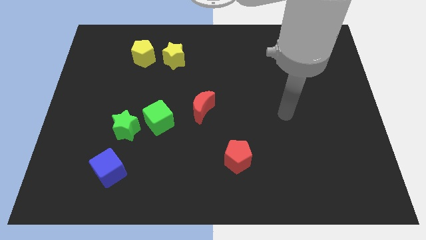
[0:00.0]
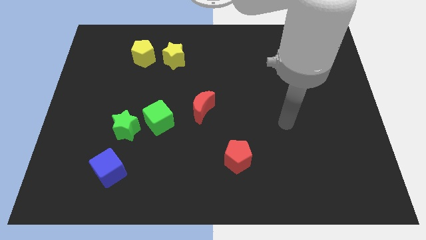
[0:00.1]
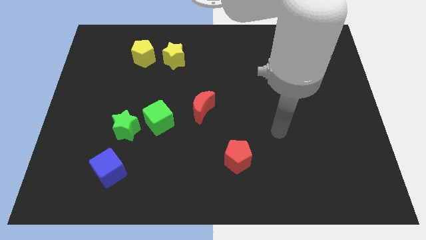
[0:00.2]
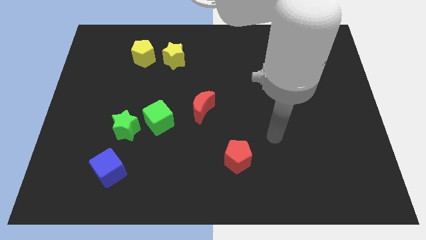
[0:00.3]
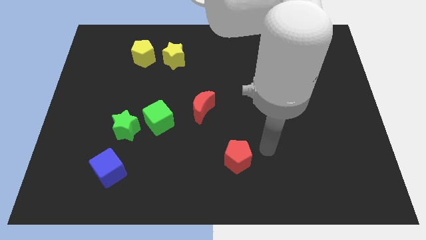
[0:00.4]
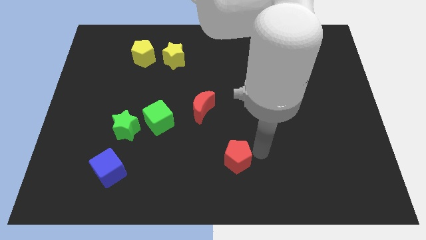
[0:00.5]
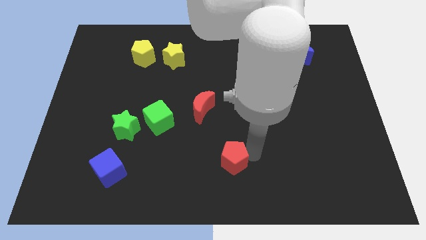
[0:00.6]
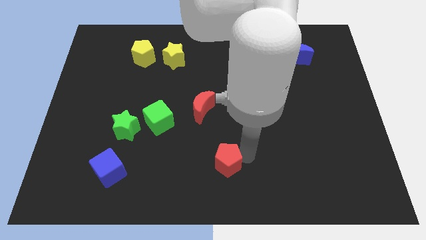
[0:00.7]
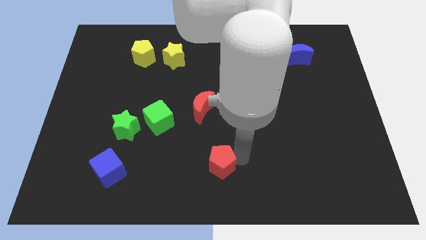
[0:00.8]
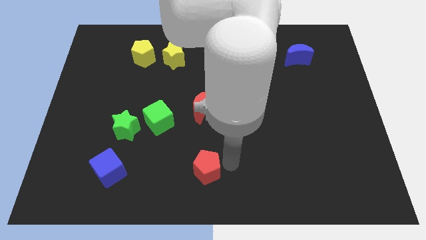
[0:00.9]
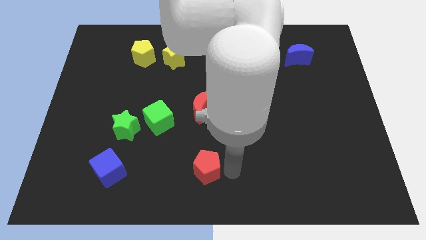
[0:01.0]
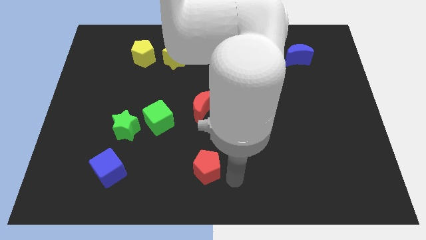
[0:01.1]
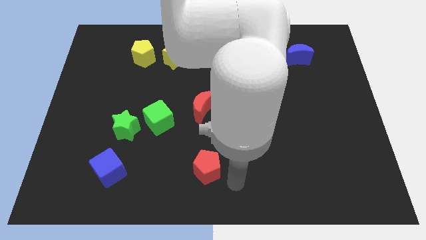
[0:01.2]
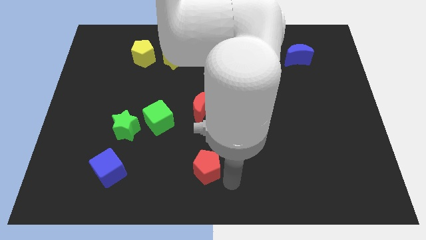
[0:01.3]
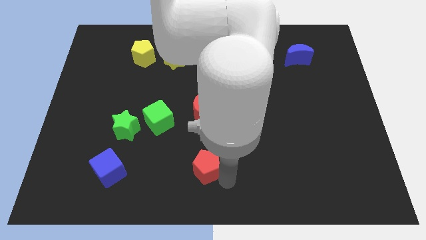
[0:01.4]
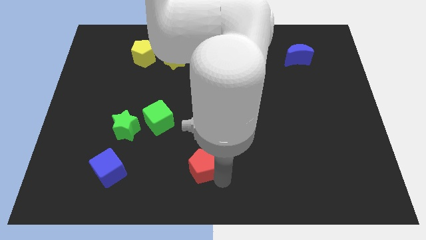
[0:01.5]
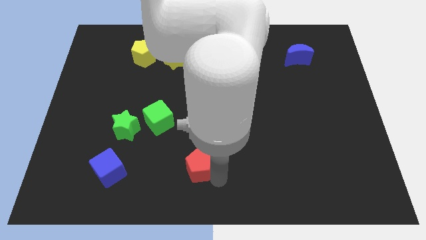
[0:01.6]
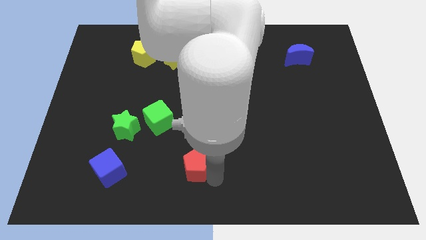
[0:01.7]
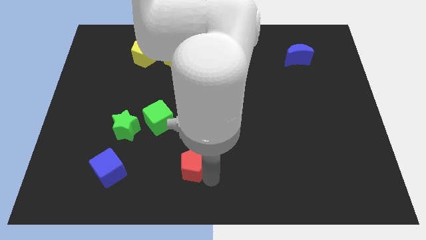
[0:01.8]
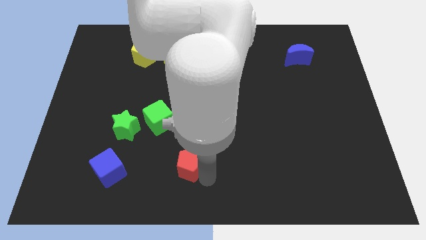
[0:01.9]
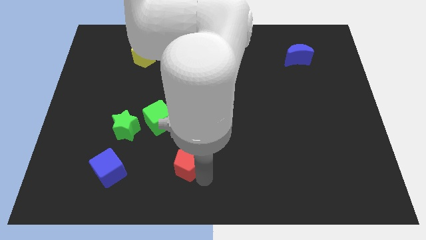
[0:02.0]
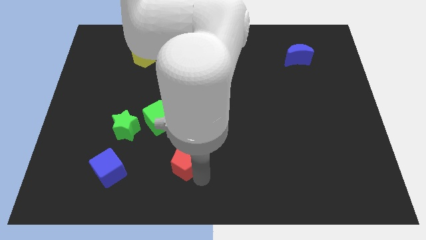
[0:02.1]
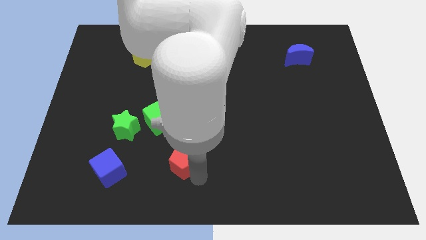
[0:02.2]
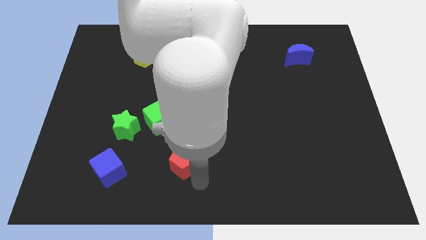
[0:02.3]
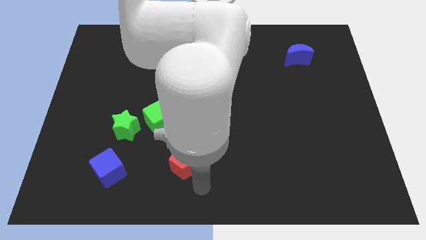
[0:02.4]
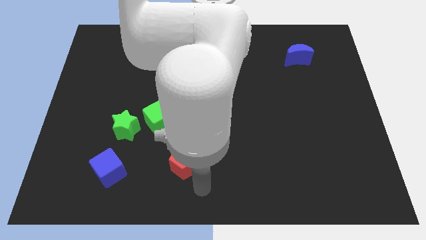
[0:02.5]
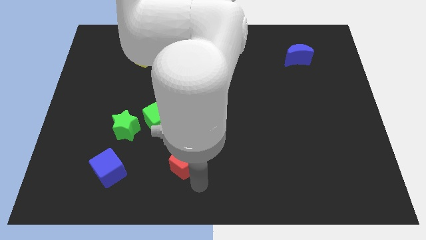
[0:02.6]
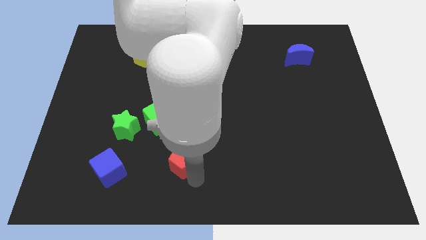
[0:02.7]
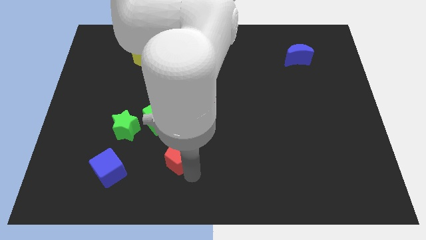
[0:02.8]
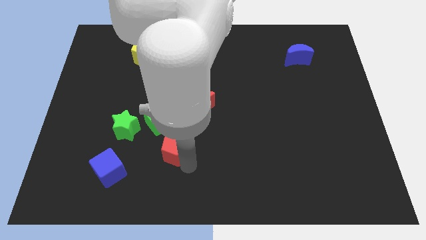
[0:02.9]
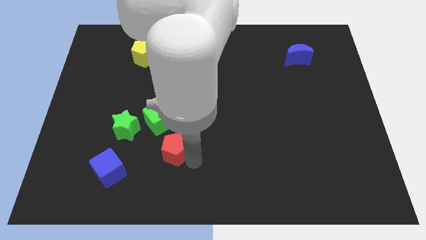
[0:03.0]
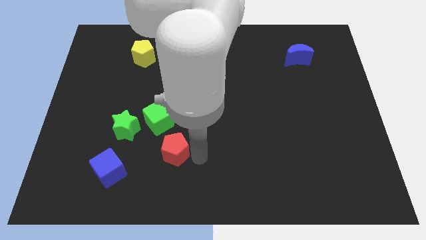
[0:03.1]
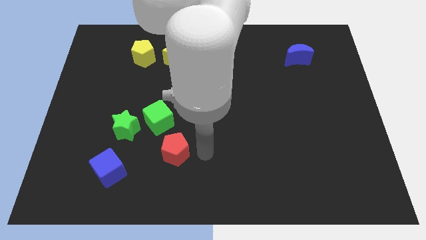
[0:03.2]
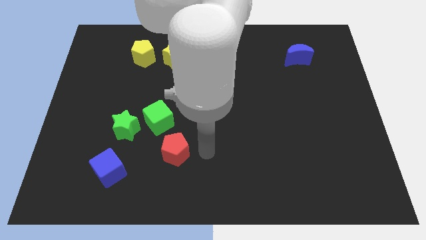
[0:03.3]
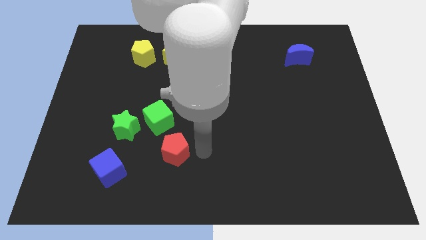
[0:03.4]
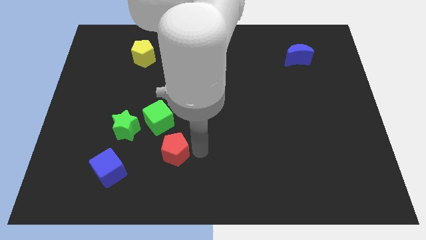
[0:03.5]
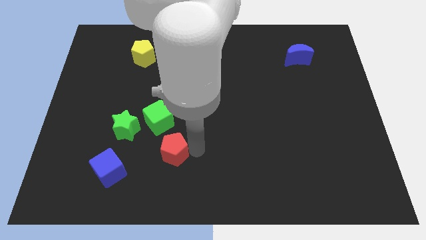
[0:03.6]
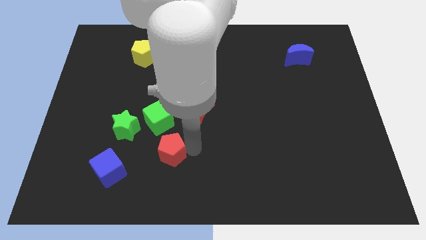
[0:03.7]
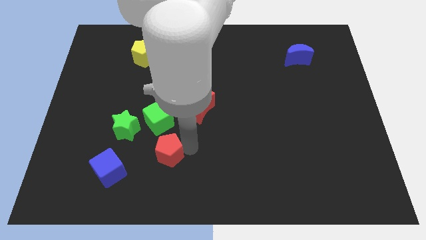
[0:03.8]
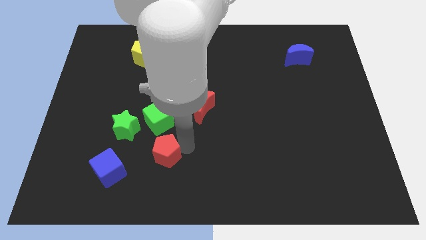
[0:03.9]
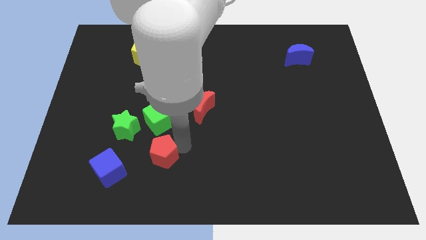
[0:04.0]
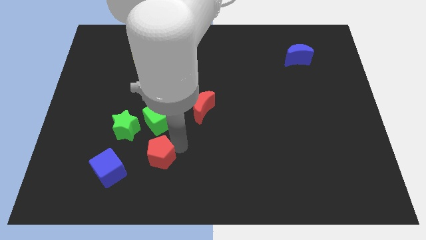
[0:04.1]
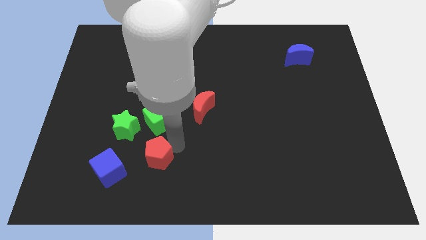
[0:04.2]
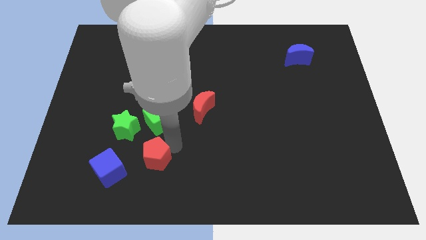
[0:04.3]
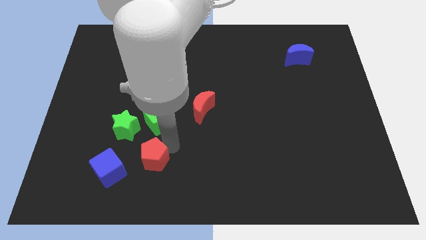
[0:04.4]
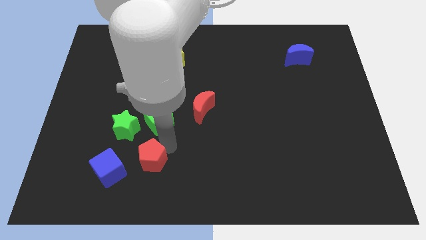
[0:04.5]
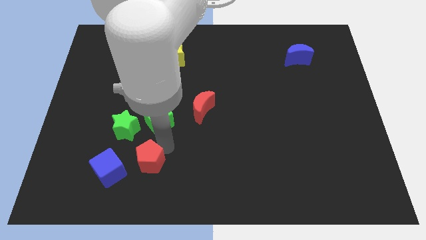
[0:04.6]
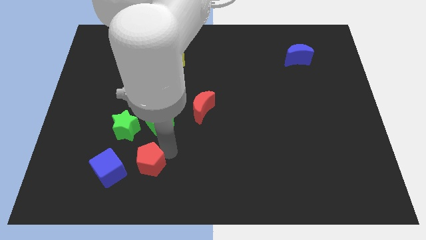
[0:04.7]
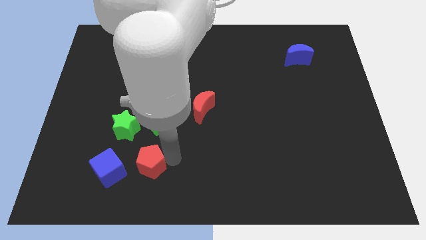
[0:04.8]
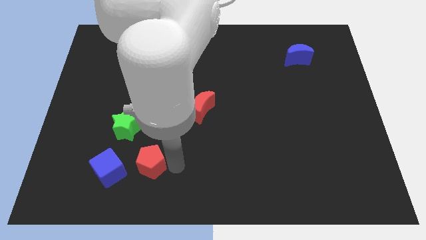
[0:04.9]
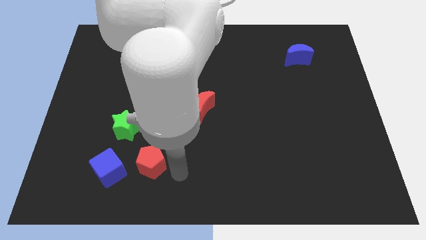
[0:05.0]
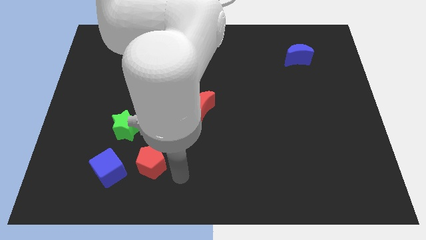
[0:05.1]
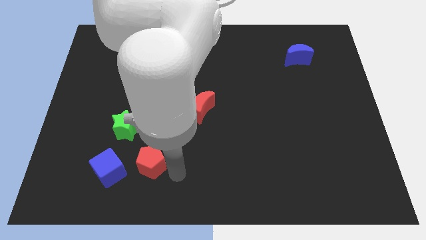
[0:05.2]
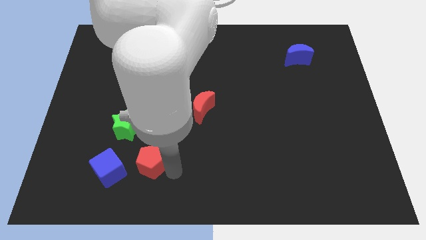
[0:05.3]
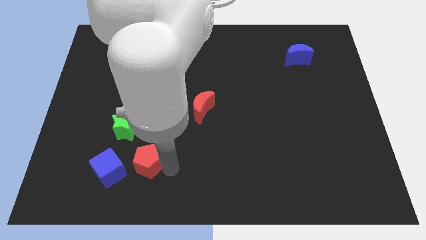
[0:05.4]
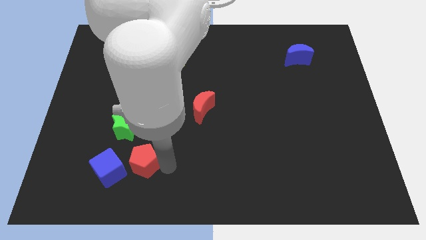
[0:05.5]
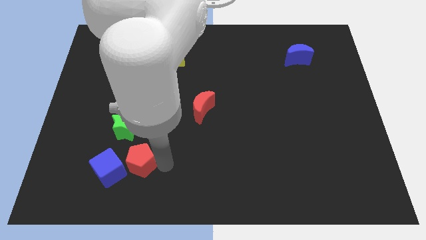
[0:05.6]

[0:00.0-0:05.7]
move the red pentagon left

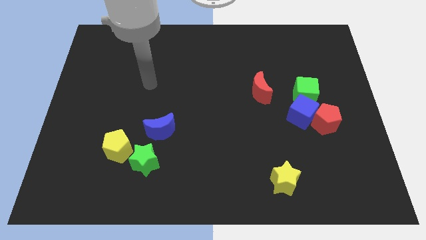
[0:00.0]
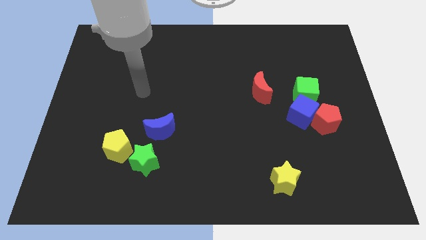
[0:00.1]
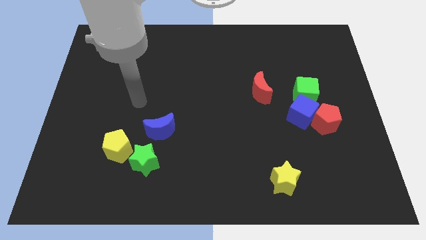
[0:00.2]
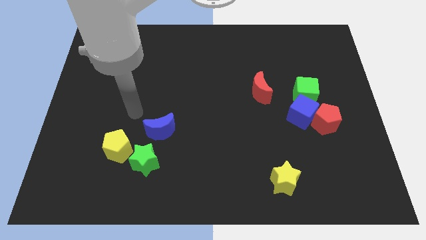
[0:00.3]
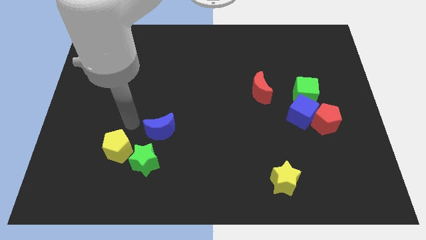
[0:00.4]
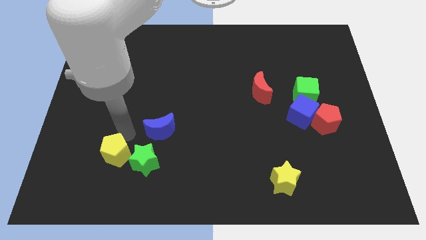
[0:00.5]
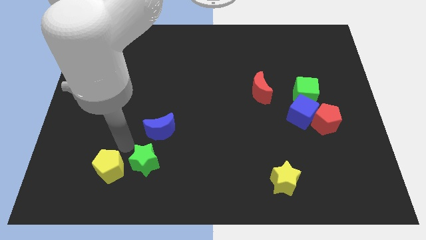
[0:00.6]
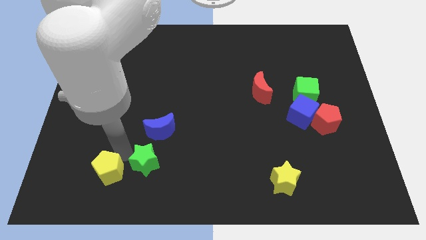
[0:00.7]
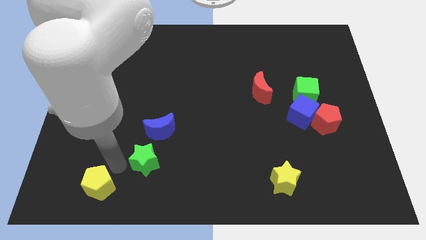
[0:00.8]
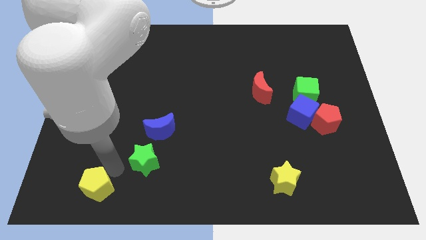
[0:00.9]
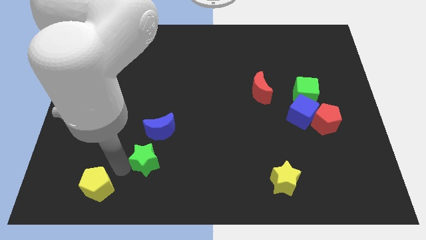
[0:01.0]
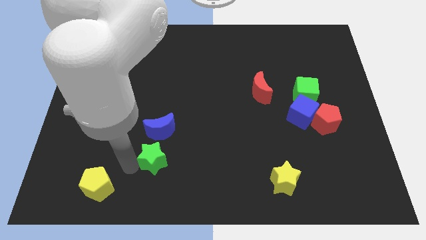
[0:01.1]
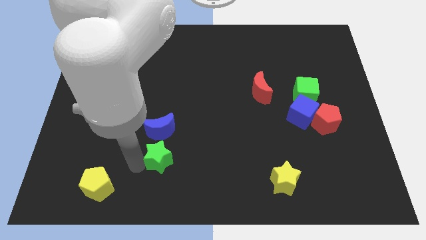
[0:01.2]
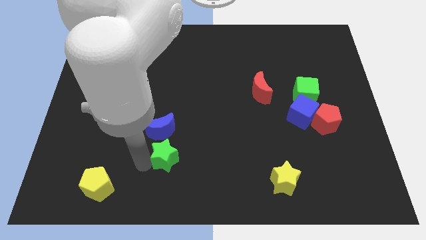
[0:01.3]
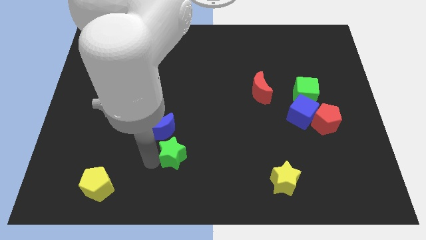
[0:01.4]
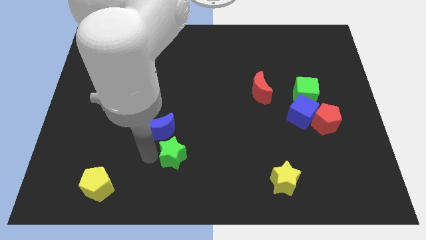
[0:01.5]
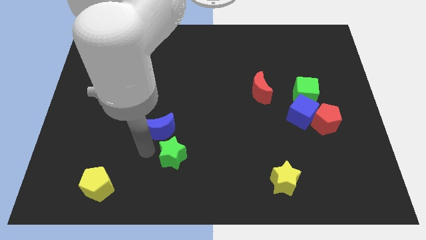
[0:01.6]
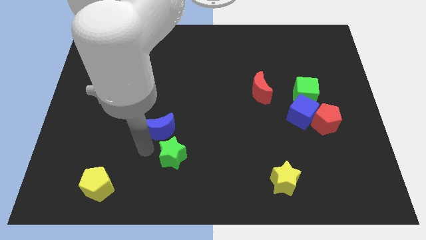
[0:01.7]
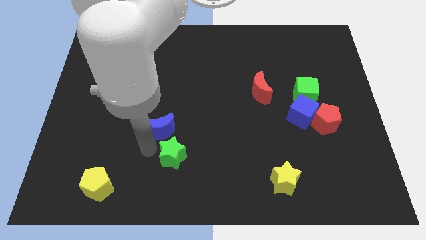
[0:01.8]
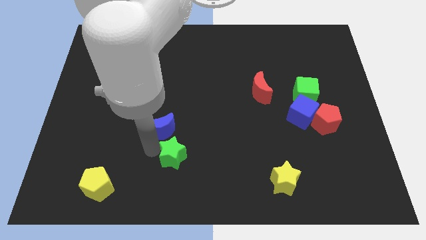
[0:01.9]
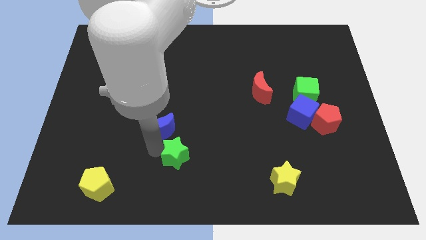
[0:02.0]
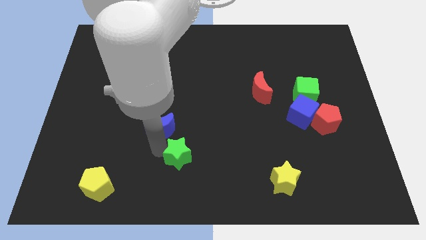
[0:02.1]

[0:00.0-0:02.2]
push the green star right somewhat
